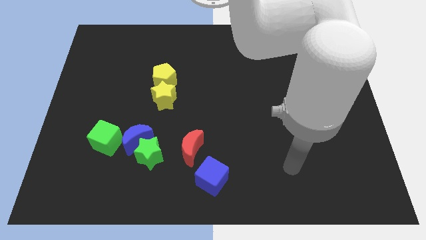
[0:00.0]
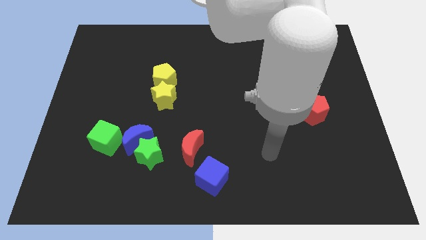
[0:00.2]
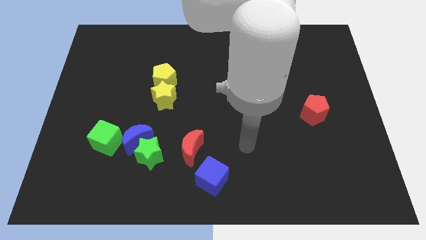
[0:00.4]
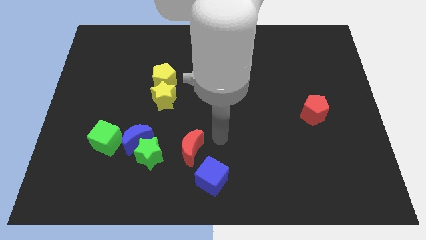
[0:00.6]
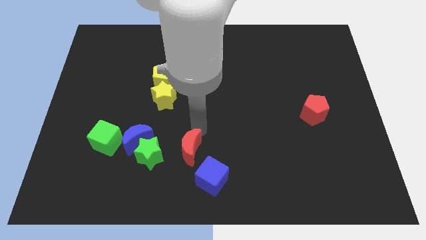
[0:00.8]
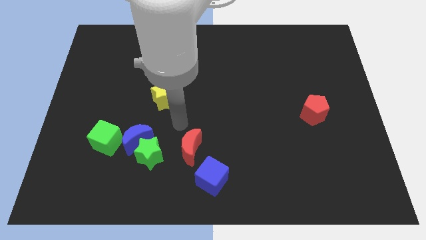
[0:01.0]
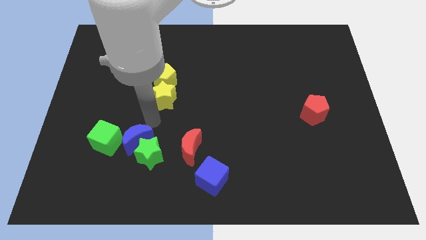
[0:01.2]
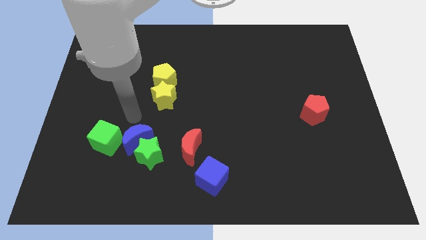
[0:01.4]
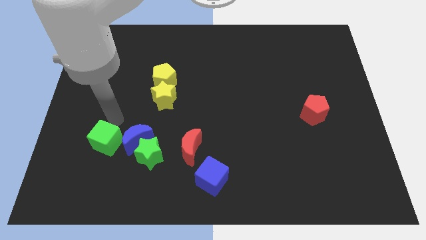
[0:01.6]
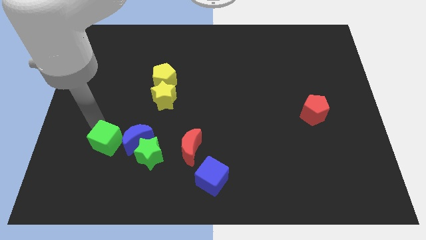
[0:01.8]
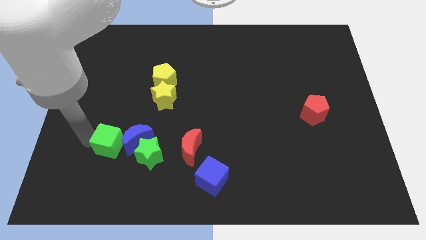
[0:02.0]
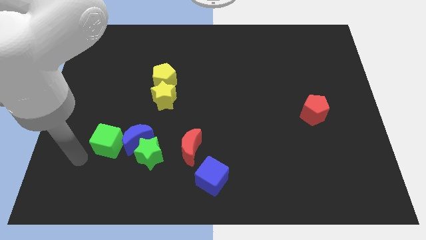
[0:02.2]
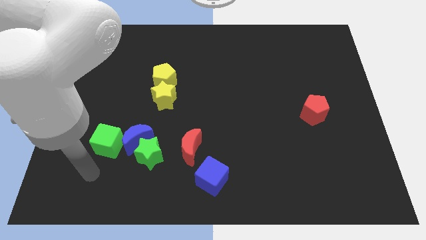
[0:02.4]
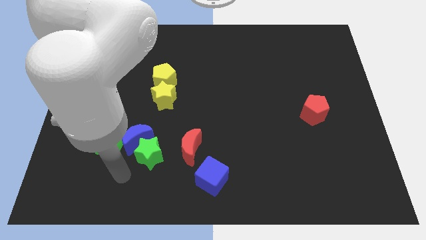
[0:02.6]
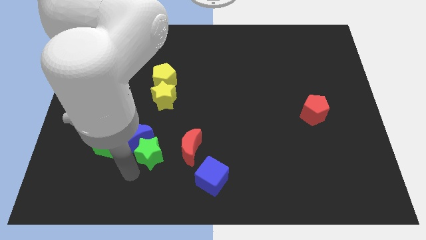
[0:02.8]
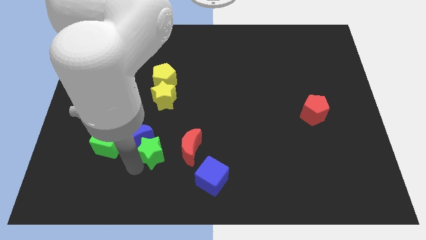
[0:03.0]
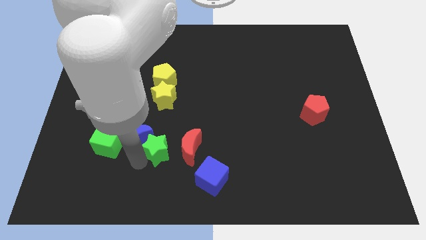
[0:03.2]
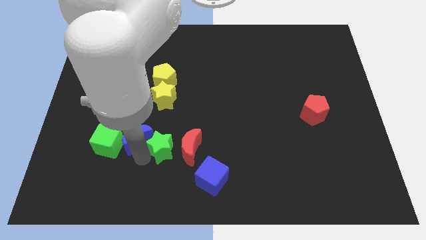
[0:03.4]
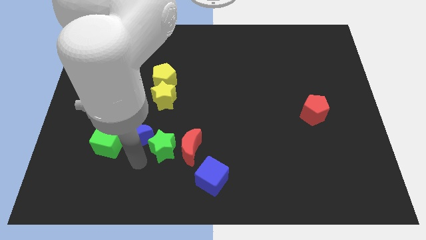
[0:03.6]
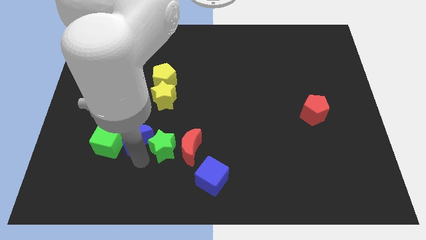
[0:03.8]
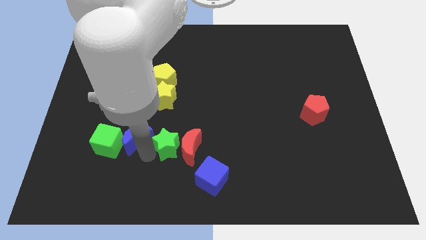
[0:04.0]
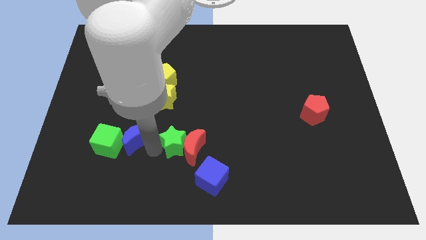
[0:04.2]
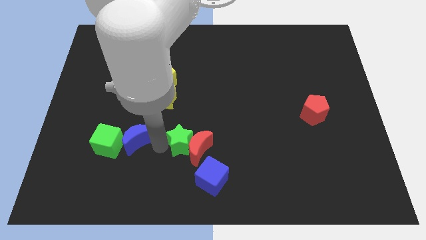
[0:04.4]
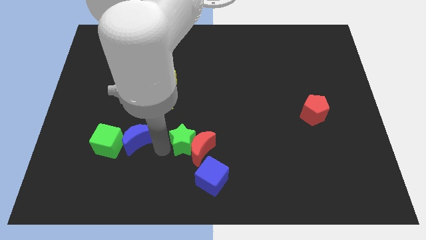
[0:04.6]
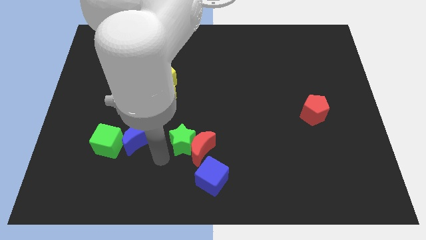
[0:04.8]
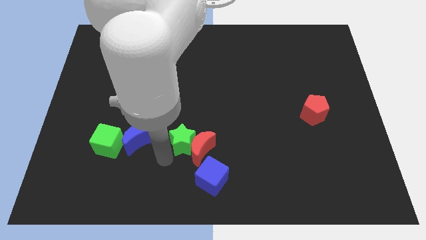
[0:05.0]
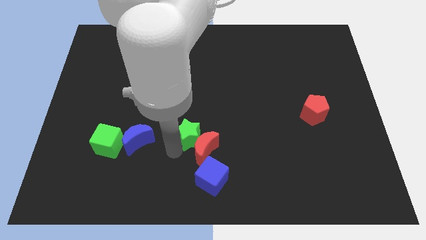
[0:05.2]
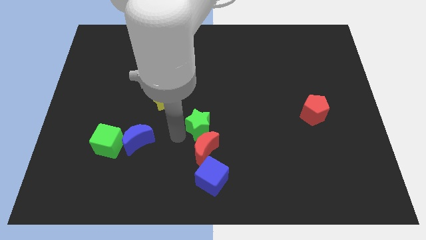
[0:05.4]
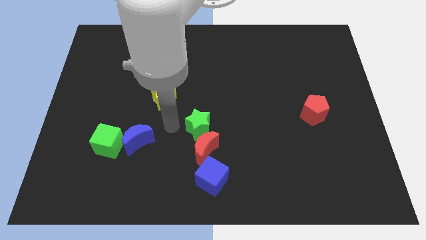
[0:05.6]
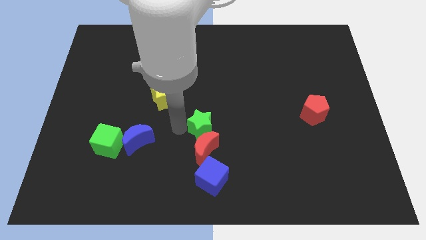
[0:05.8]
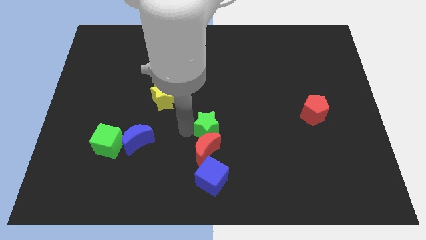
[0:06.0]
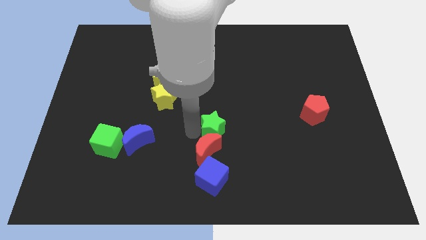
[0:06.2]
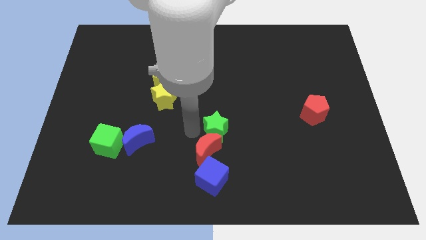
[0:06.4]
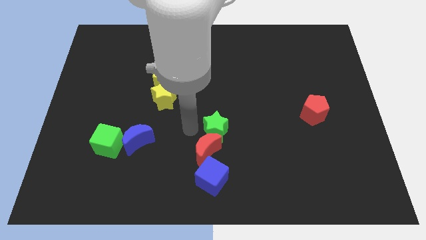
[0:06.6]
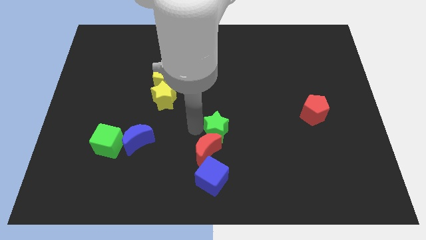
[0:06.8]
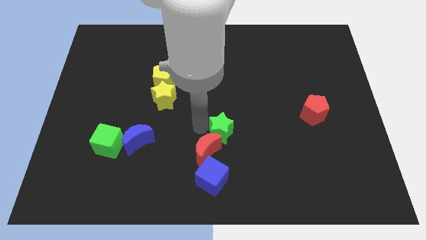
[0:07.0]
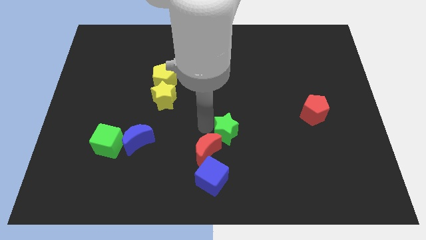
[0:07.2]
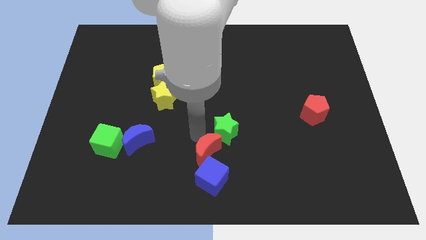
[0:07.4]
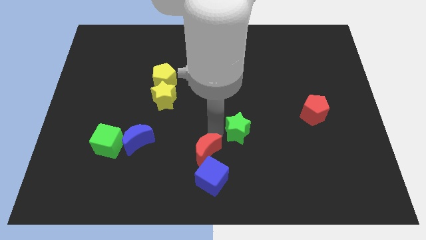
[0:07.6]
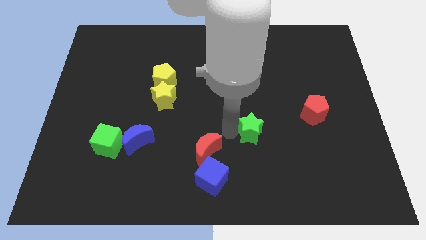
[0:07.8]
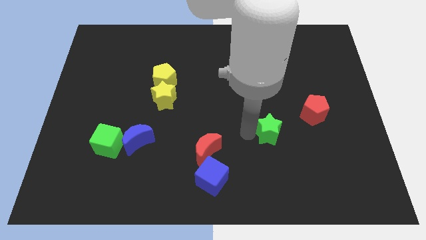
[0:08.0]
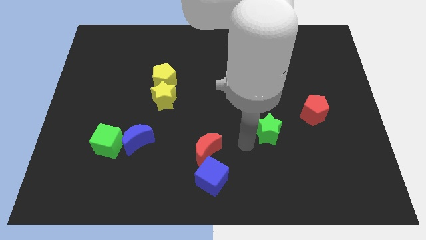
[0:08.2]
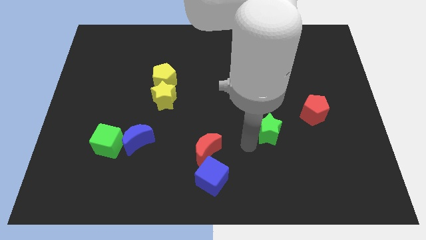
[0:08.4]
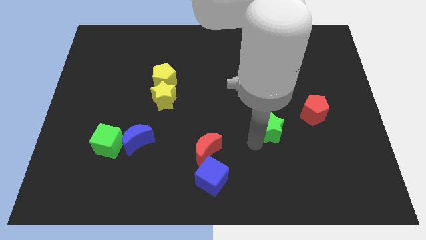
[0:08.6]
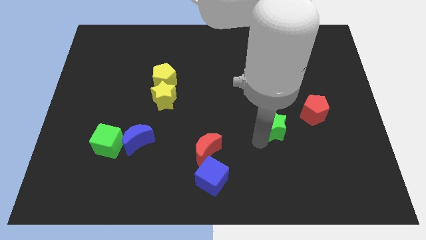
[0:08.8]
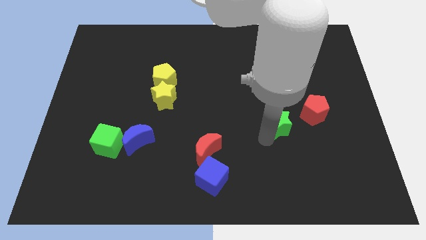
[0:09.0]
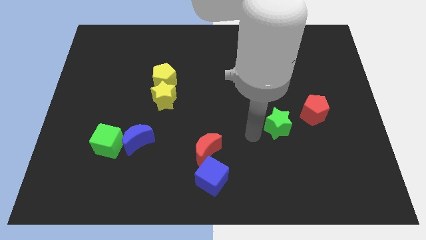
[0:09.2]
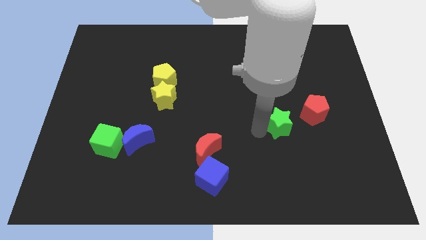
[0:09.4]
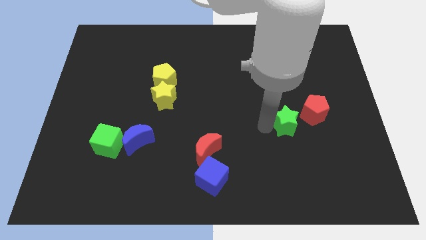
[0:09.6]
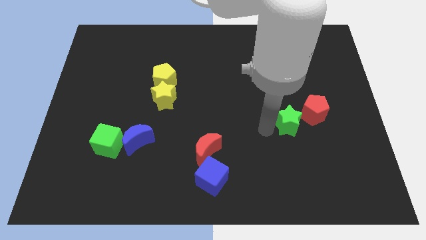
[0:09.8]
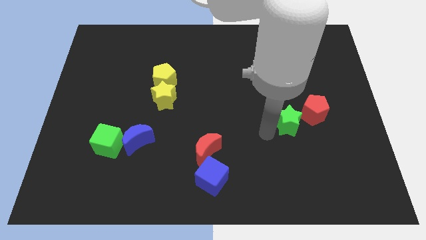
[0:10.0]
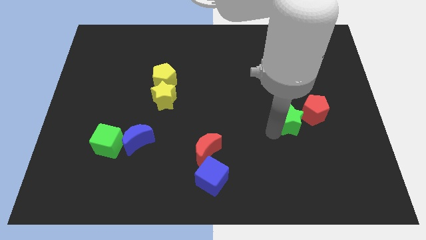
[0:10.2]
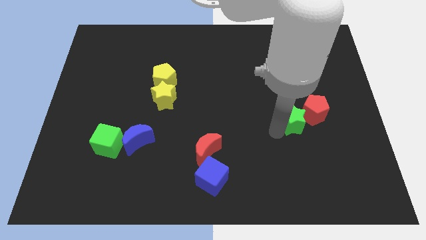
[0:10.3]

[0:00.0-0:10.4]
put the green star to the red pentagon
